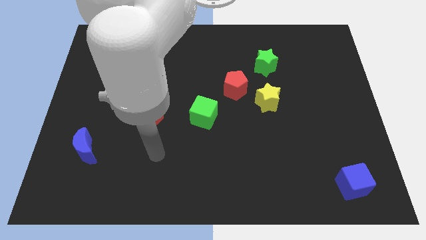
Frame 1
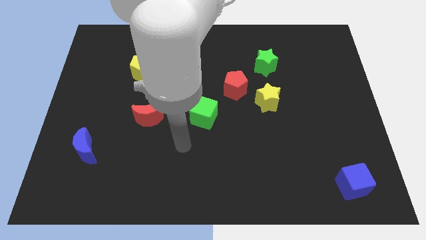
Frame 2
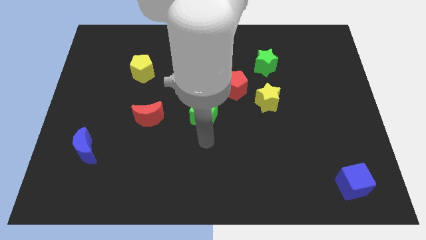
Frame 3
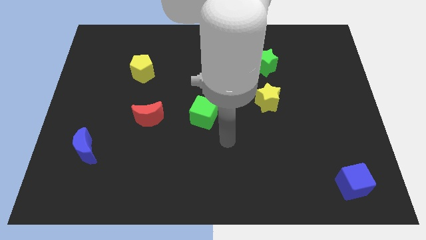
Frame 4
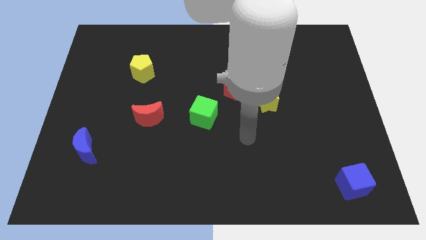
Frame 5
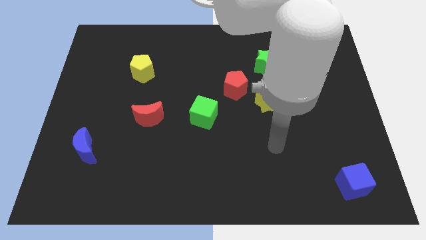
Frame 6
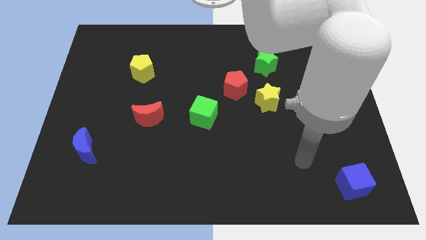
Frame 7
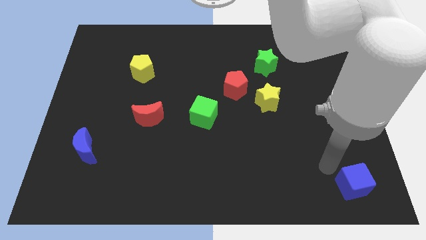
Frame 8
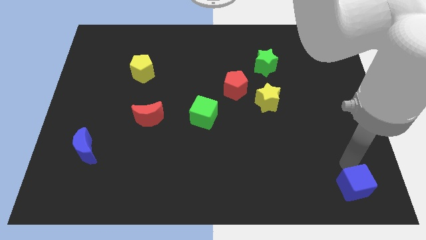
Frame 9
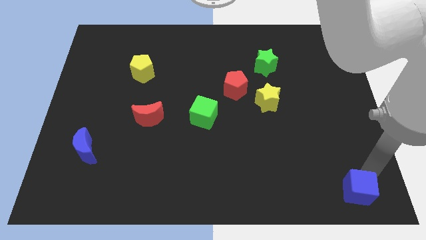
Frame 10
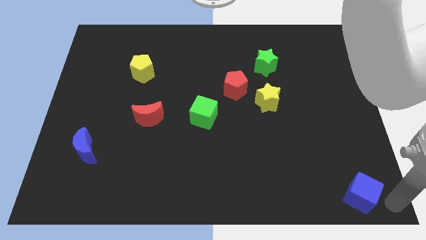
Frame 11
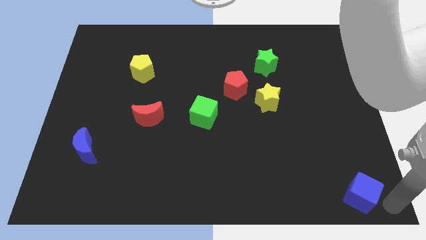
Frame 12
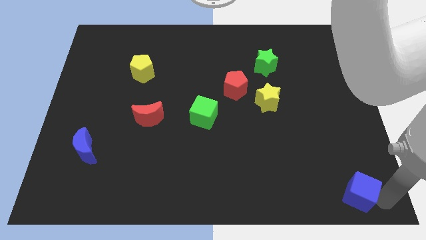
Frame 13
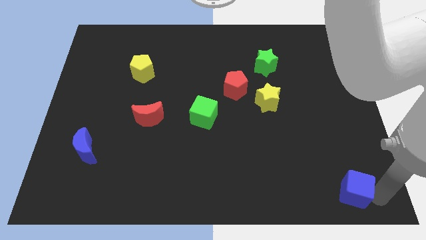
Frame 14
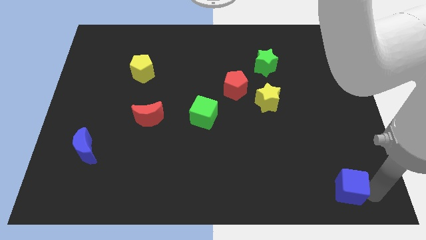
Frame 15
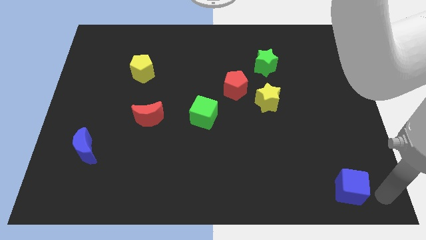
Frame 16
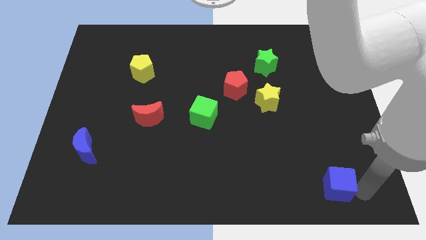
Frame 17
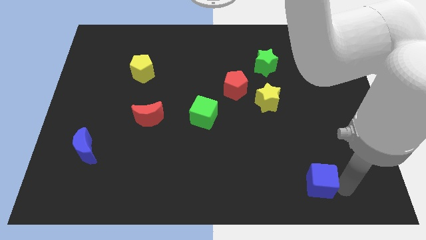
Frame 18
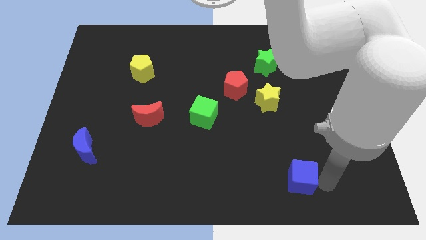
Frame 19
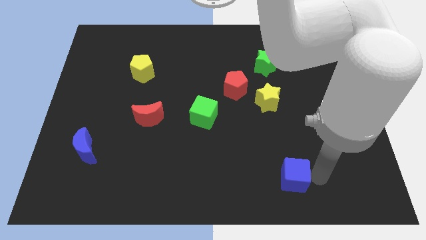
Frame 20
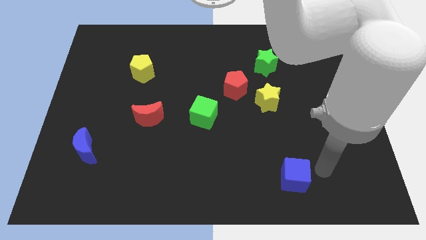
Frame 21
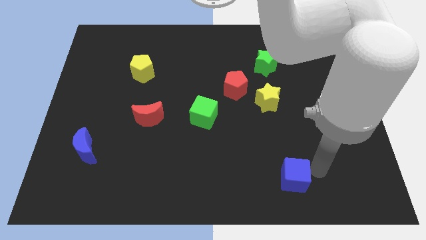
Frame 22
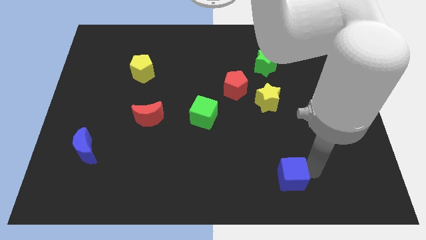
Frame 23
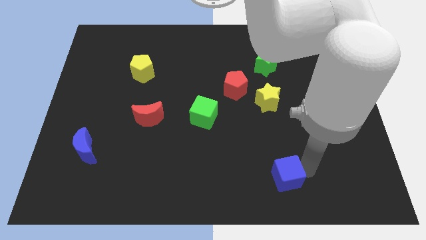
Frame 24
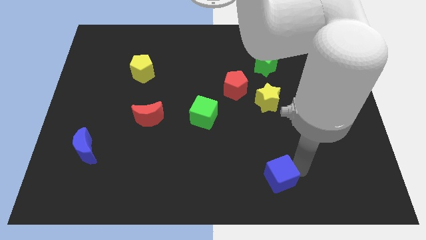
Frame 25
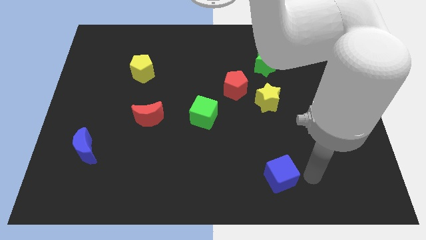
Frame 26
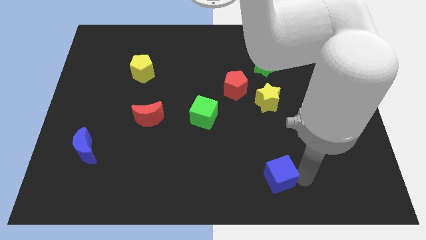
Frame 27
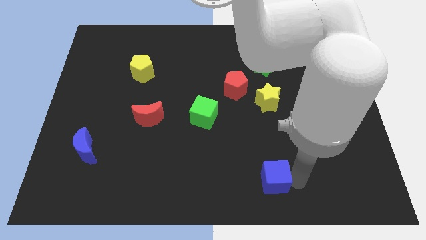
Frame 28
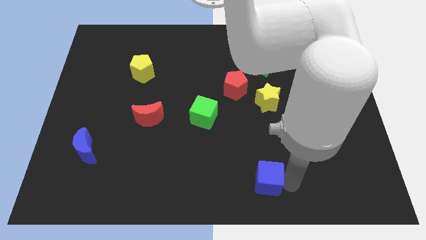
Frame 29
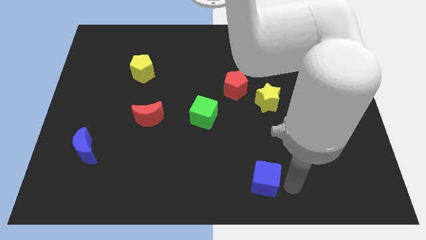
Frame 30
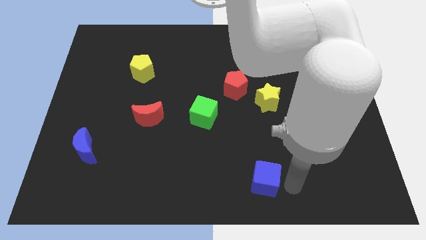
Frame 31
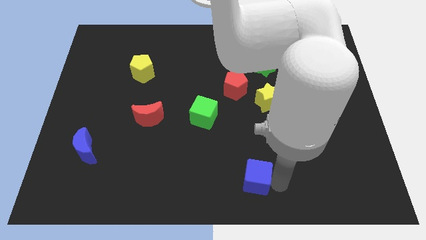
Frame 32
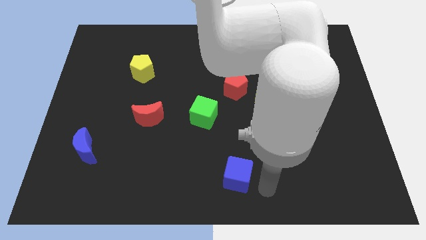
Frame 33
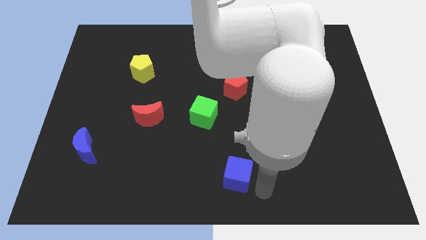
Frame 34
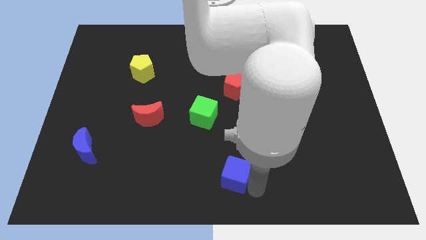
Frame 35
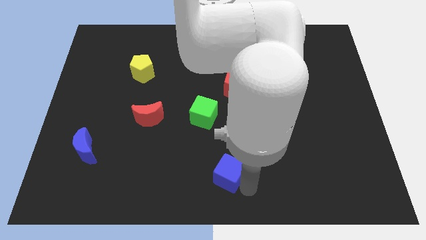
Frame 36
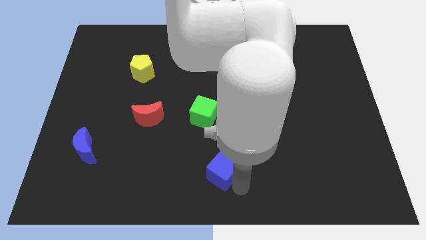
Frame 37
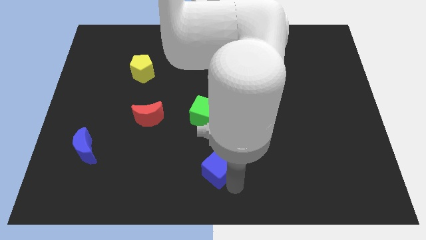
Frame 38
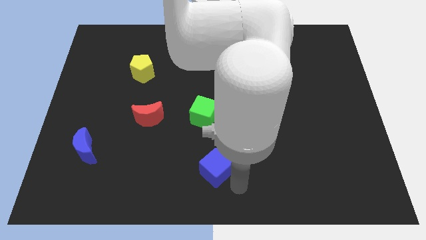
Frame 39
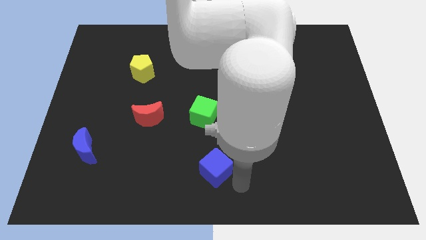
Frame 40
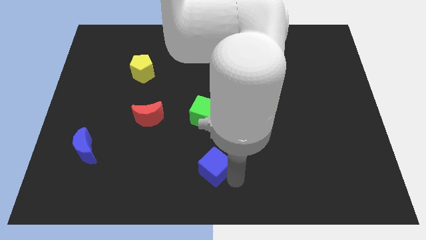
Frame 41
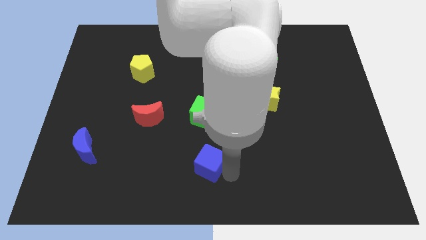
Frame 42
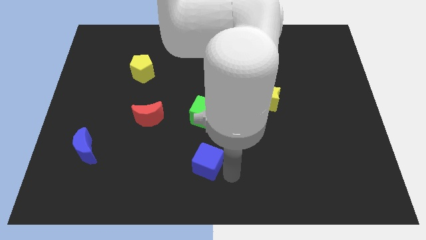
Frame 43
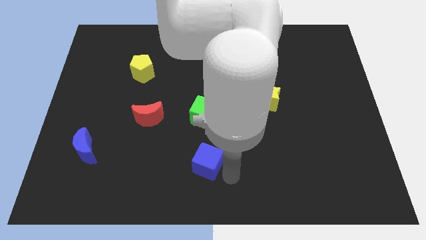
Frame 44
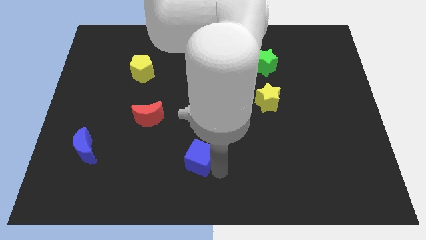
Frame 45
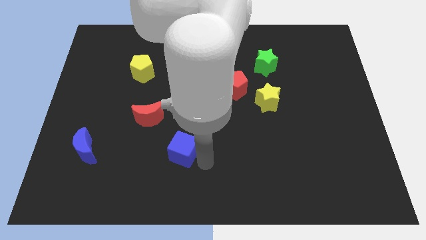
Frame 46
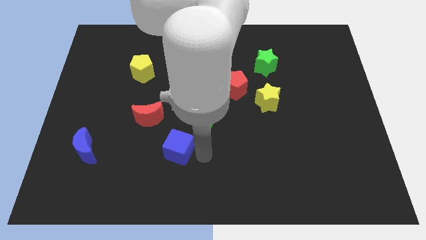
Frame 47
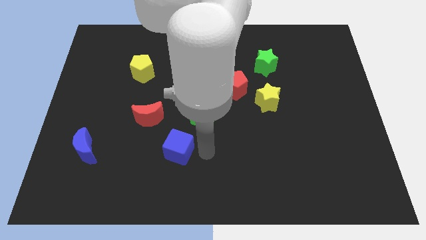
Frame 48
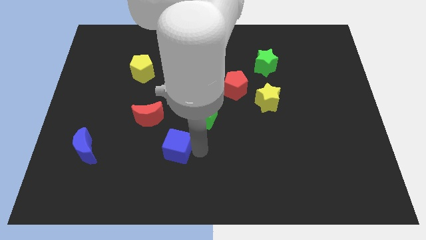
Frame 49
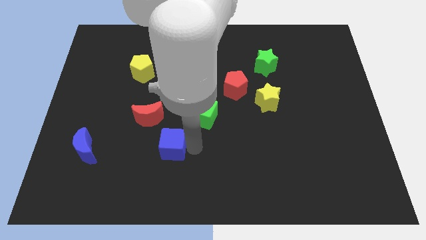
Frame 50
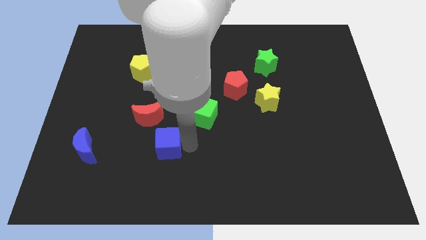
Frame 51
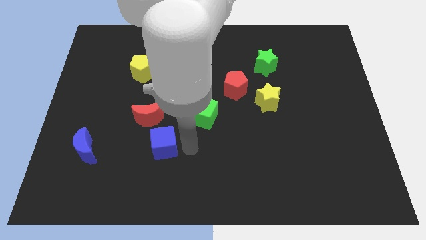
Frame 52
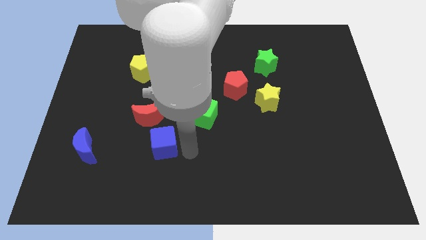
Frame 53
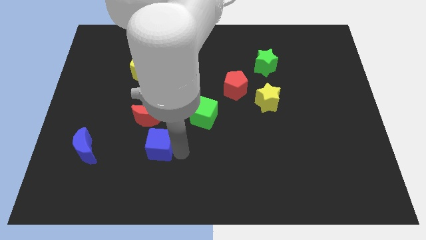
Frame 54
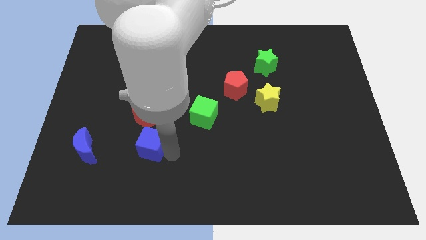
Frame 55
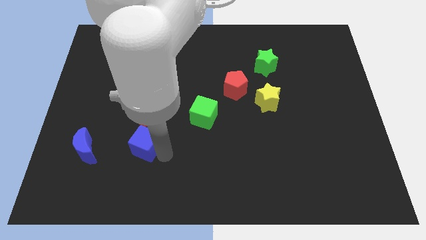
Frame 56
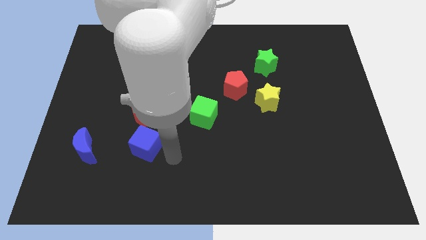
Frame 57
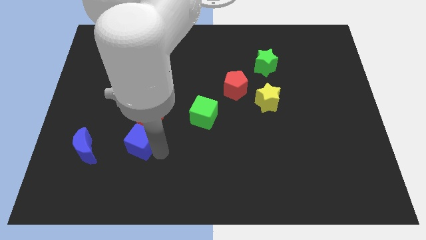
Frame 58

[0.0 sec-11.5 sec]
push the blue cube to the bottom left side of the red moon

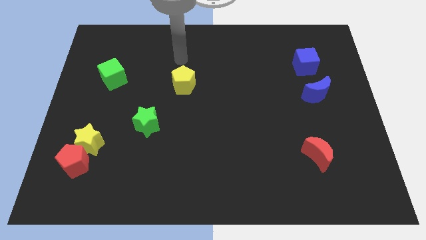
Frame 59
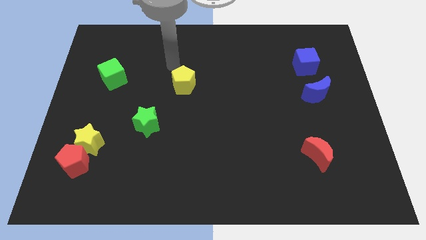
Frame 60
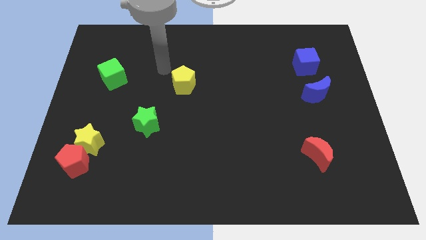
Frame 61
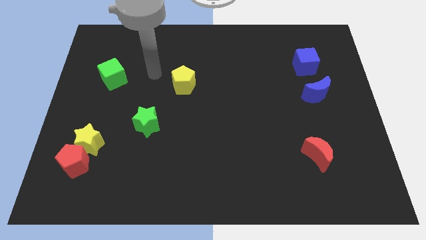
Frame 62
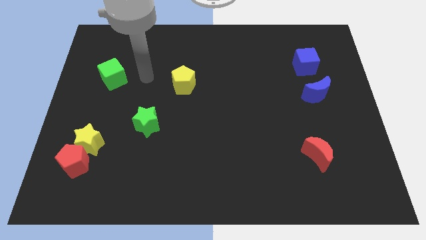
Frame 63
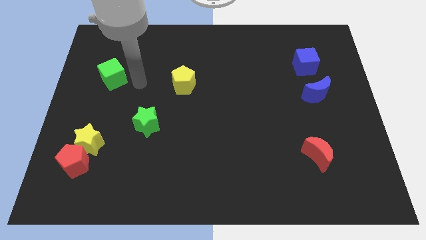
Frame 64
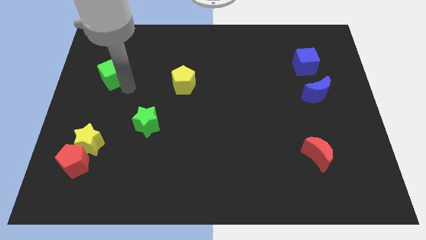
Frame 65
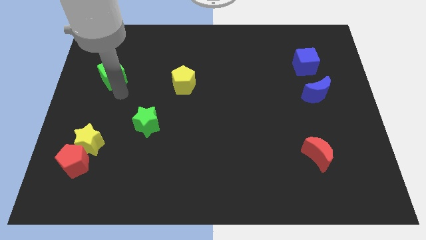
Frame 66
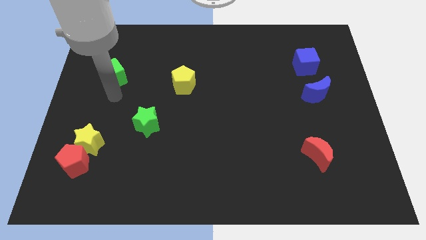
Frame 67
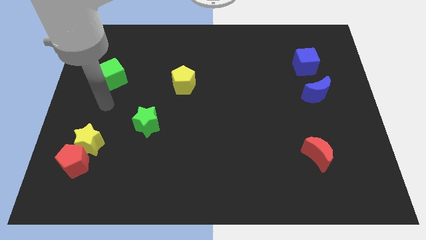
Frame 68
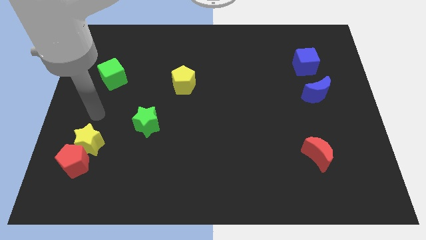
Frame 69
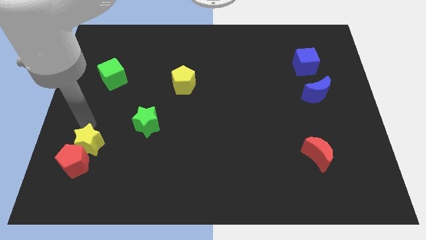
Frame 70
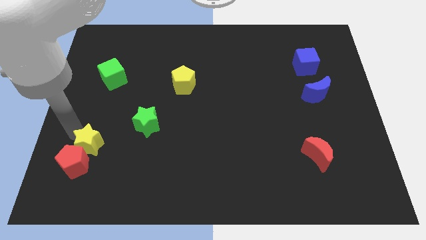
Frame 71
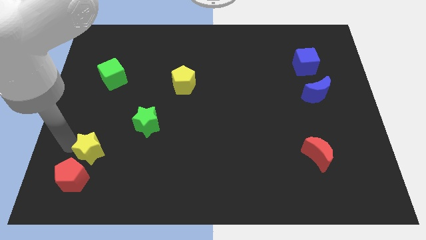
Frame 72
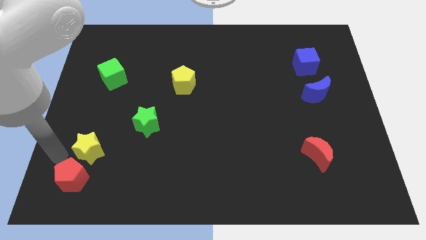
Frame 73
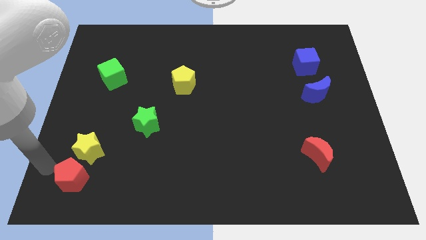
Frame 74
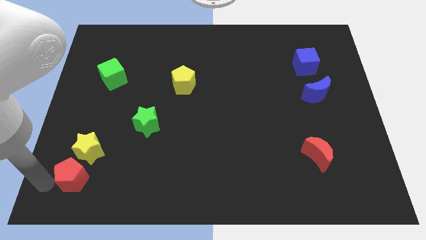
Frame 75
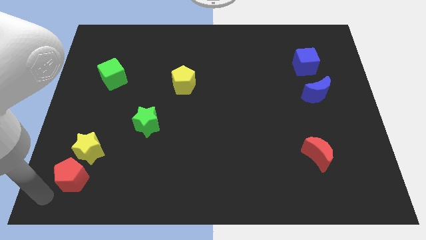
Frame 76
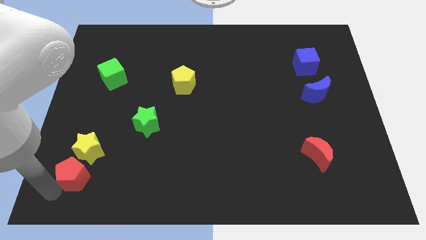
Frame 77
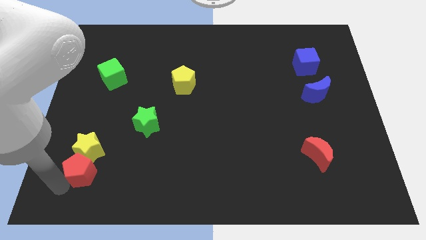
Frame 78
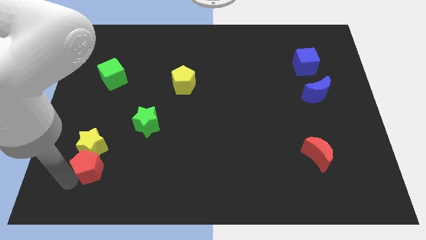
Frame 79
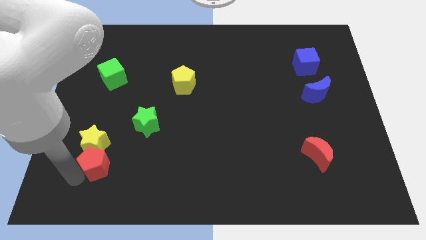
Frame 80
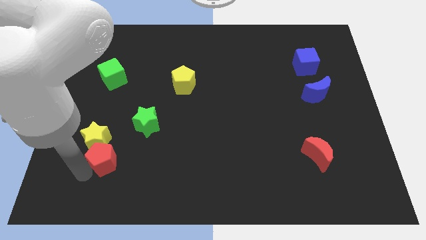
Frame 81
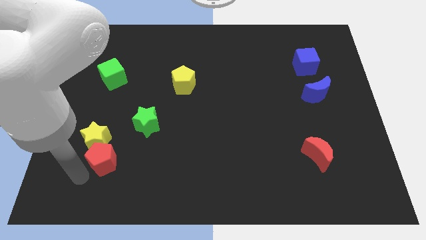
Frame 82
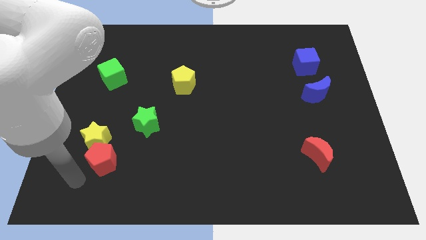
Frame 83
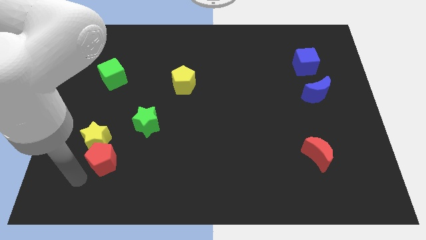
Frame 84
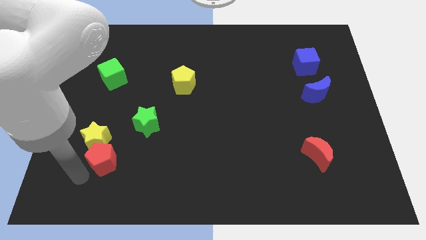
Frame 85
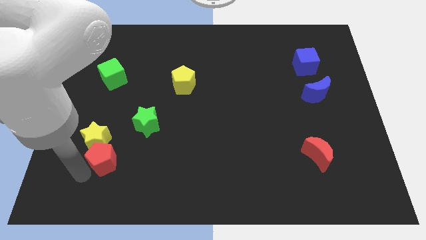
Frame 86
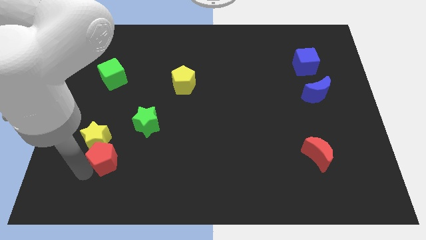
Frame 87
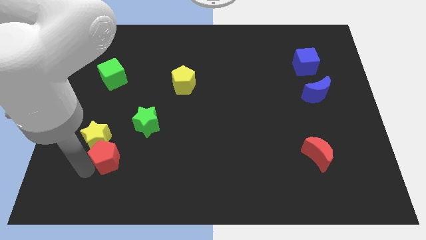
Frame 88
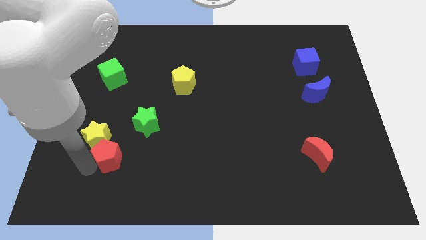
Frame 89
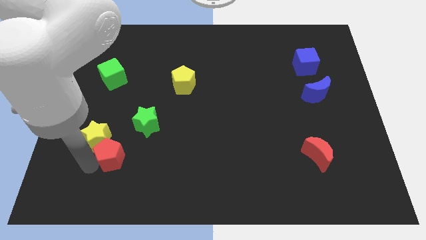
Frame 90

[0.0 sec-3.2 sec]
put the red pentagon just right of the yellow star
